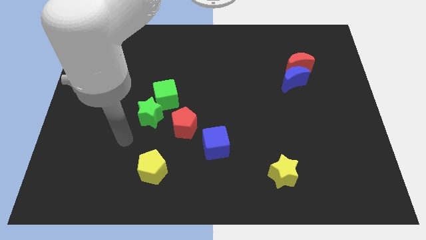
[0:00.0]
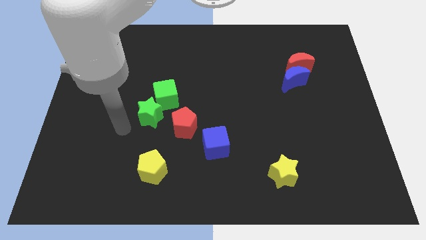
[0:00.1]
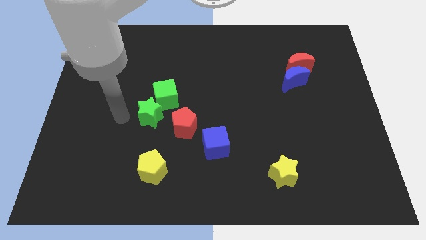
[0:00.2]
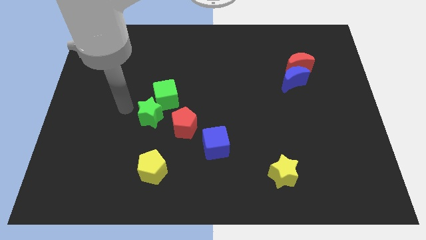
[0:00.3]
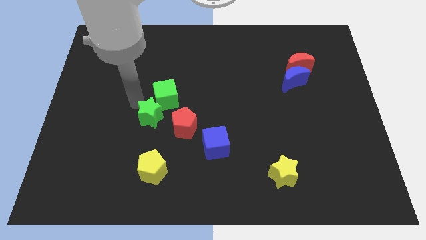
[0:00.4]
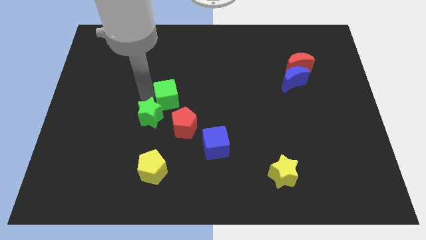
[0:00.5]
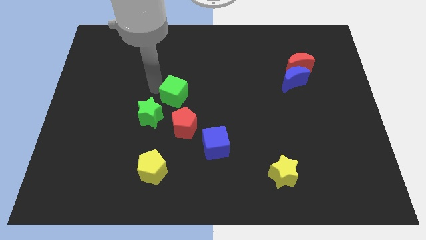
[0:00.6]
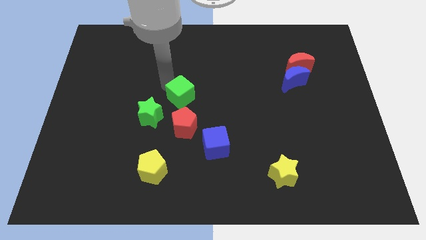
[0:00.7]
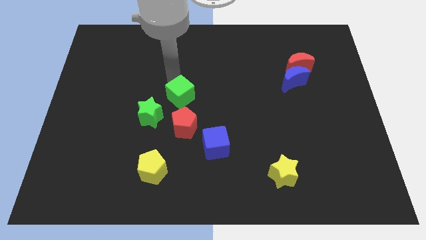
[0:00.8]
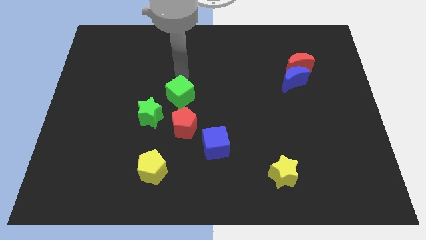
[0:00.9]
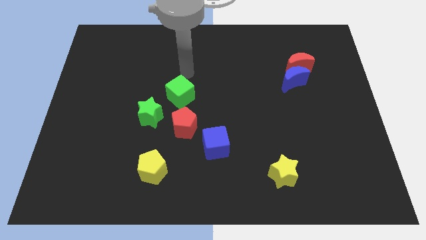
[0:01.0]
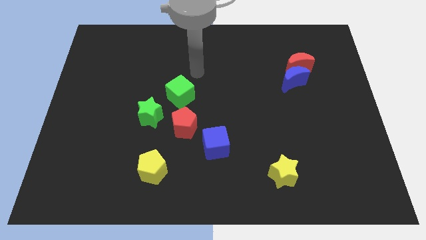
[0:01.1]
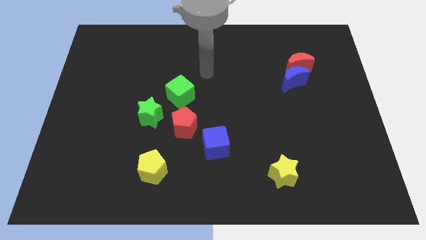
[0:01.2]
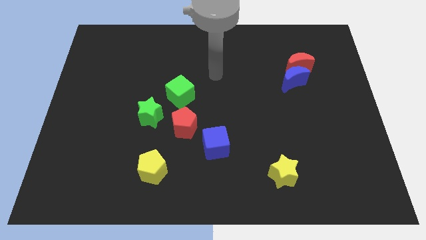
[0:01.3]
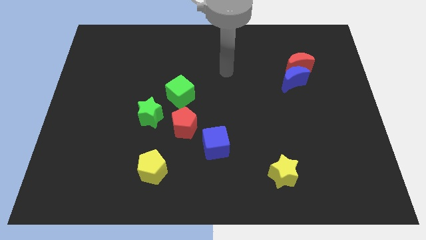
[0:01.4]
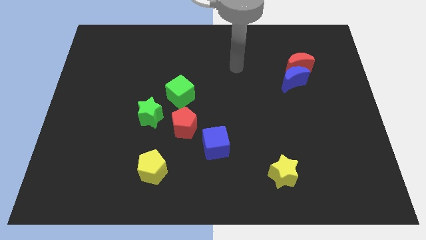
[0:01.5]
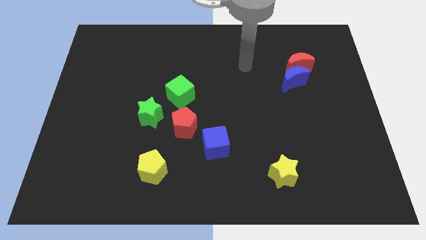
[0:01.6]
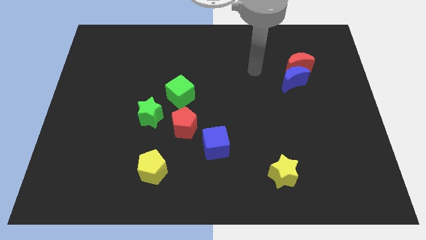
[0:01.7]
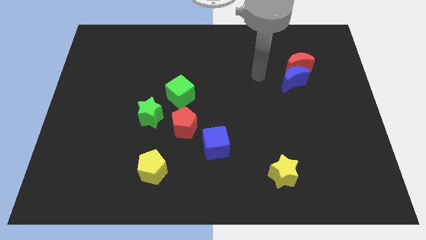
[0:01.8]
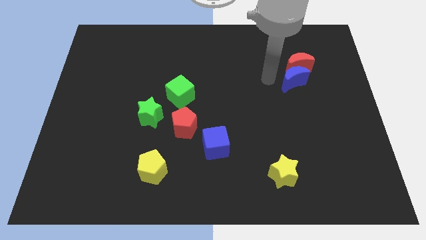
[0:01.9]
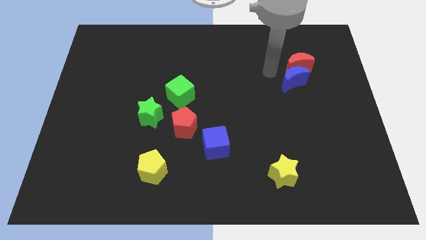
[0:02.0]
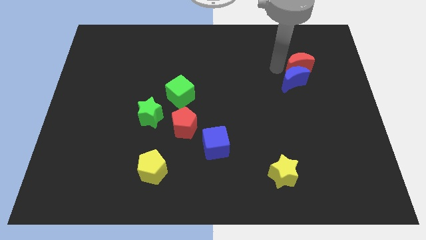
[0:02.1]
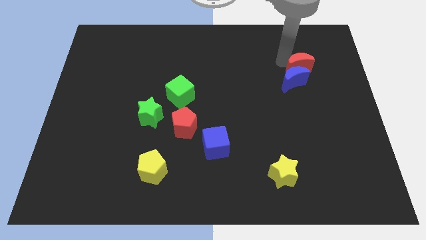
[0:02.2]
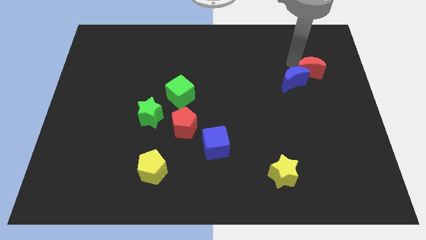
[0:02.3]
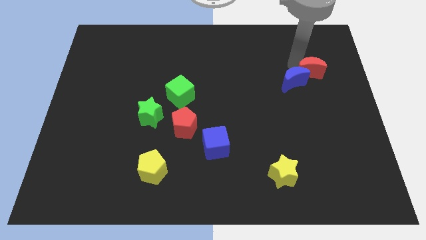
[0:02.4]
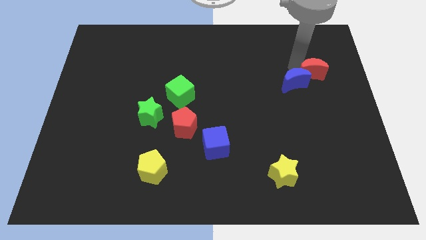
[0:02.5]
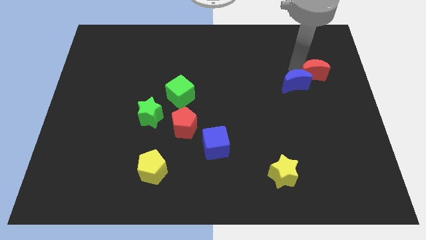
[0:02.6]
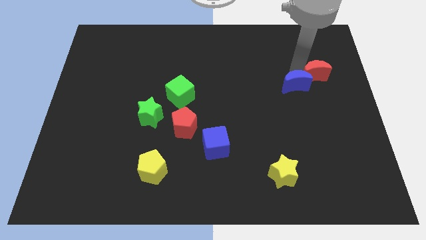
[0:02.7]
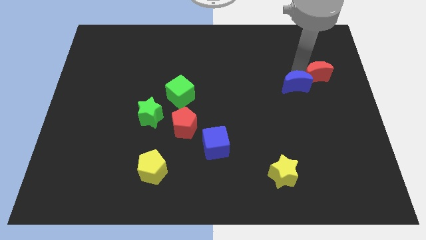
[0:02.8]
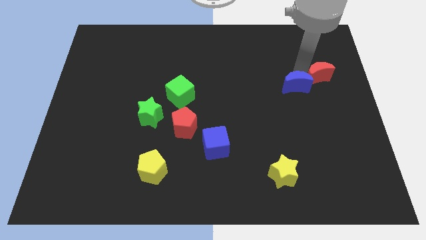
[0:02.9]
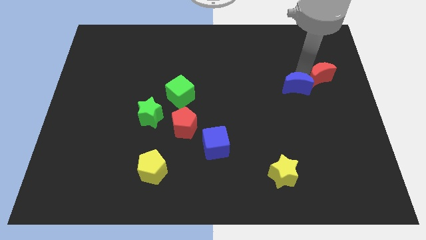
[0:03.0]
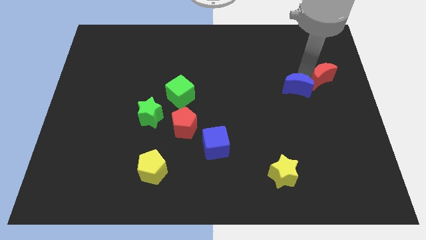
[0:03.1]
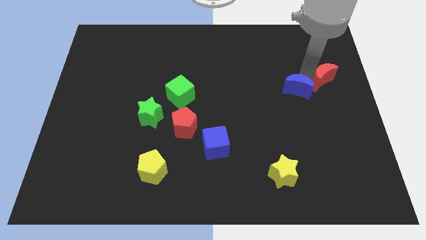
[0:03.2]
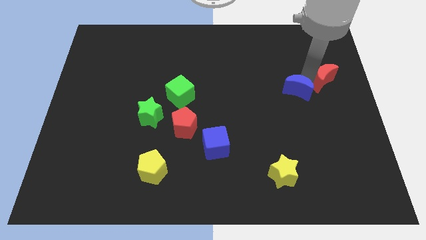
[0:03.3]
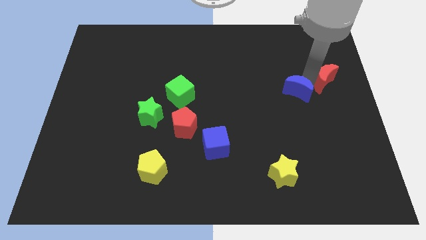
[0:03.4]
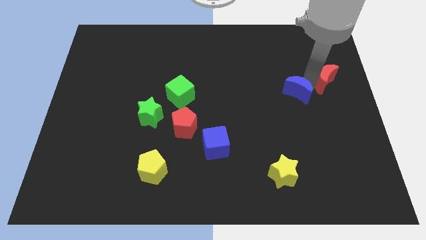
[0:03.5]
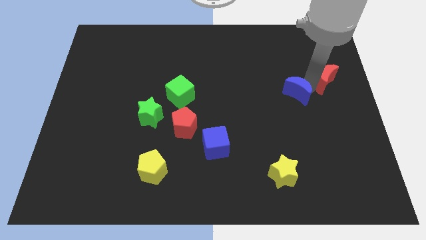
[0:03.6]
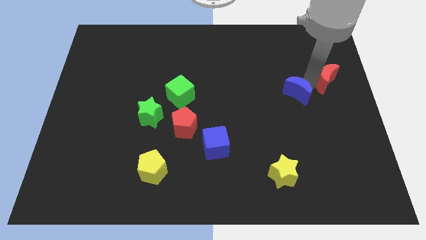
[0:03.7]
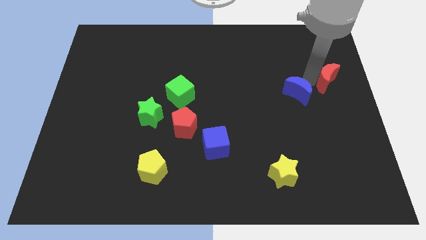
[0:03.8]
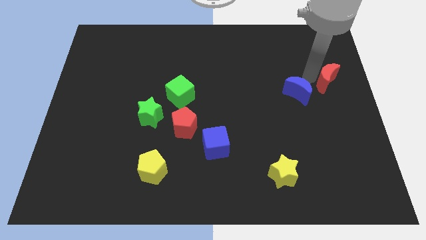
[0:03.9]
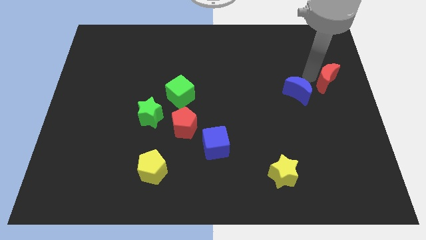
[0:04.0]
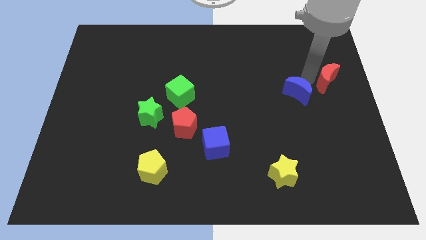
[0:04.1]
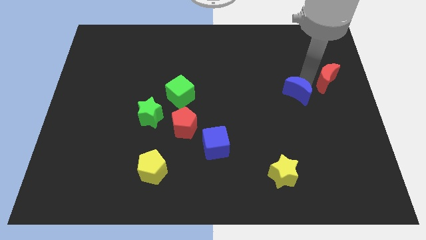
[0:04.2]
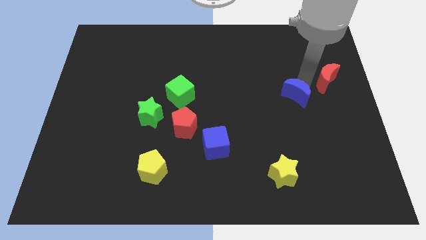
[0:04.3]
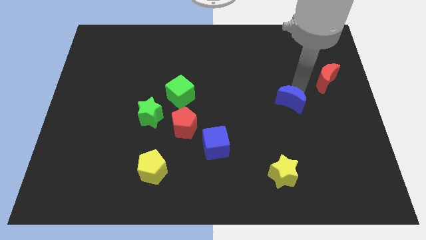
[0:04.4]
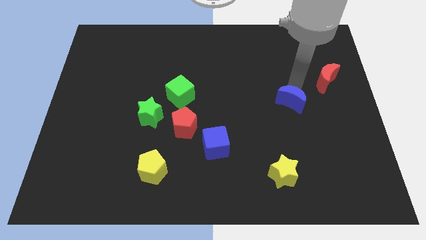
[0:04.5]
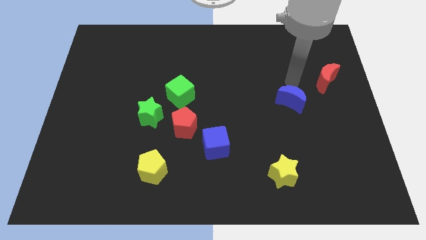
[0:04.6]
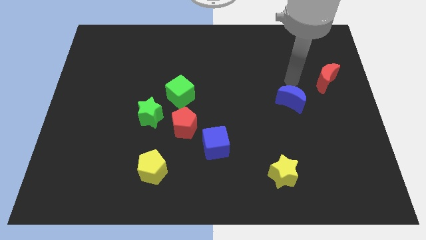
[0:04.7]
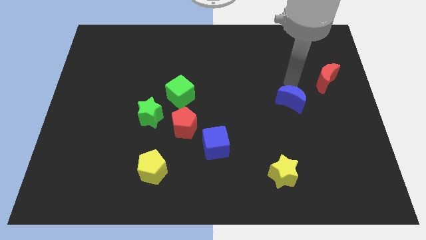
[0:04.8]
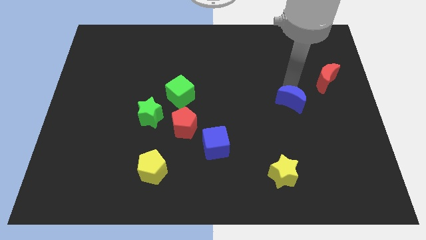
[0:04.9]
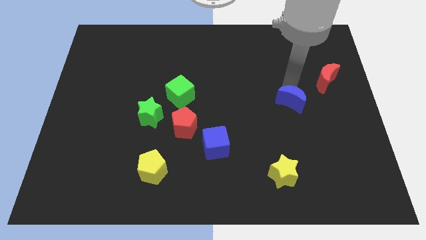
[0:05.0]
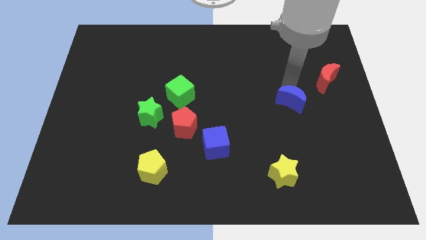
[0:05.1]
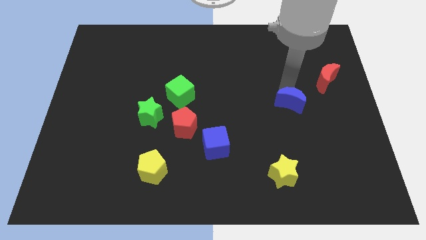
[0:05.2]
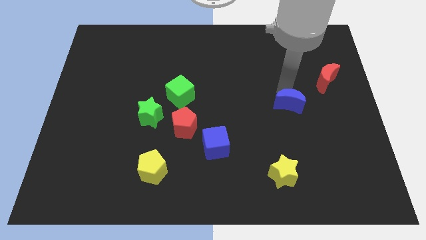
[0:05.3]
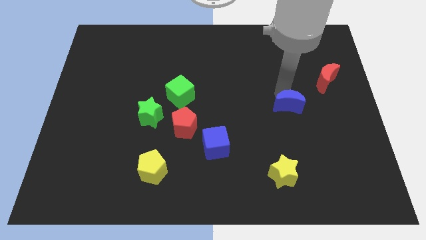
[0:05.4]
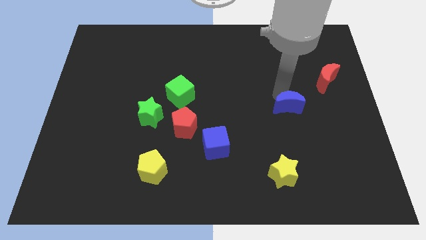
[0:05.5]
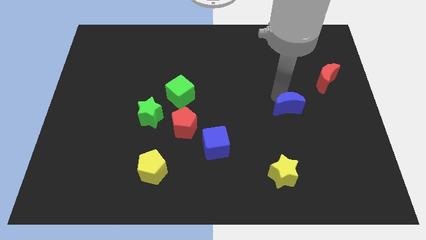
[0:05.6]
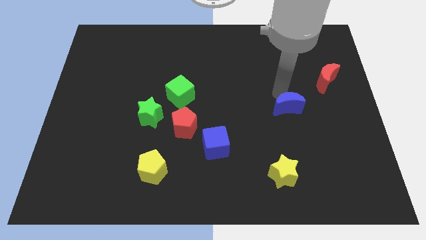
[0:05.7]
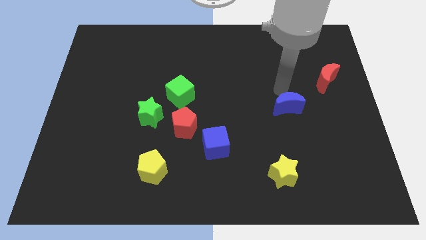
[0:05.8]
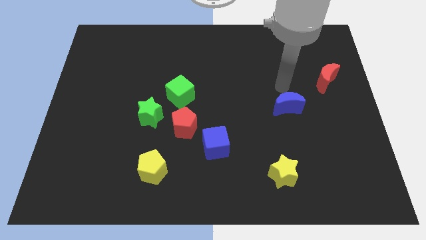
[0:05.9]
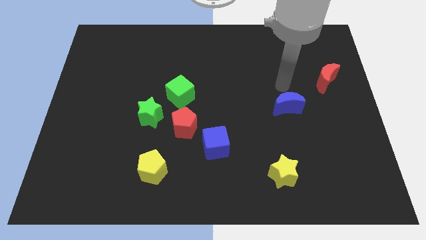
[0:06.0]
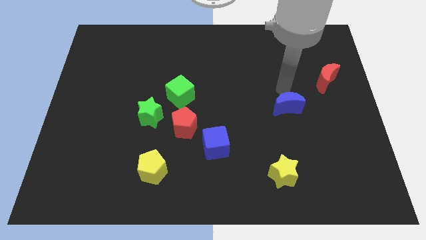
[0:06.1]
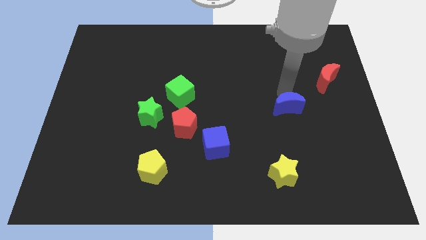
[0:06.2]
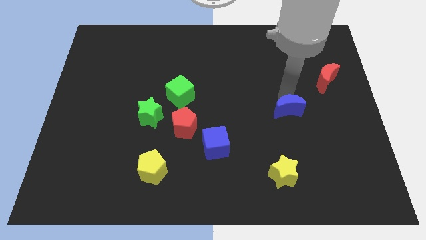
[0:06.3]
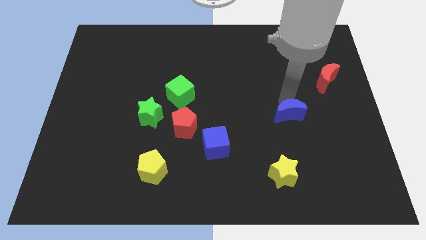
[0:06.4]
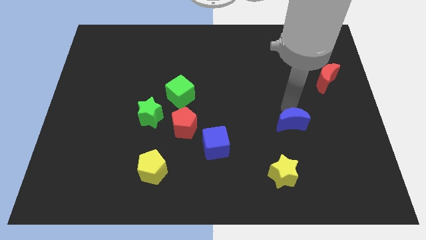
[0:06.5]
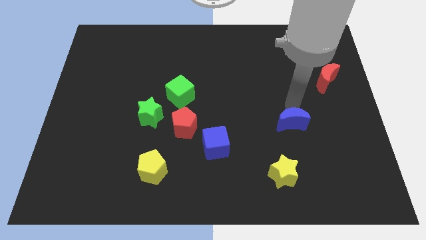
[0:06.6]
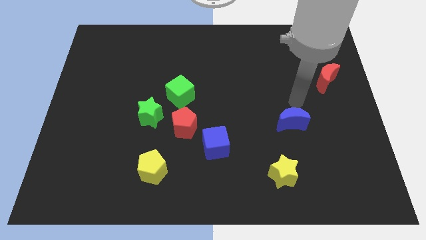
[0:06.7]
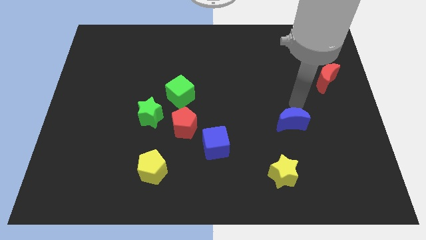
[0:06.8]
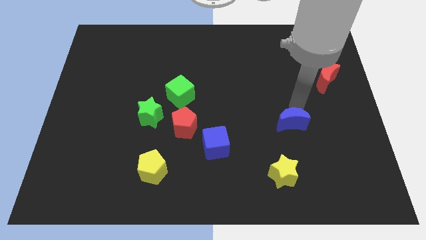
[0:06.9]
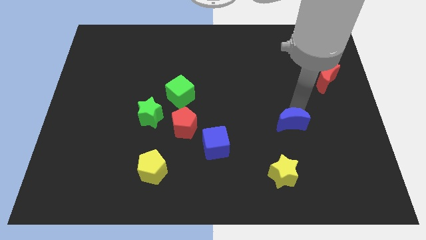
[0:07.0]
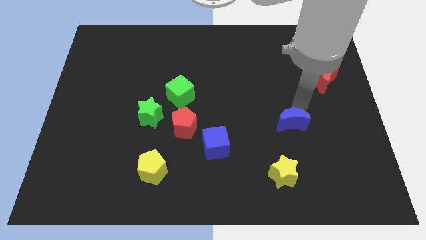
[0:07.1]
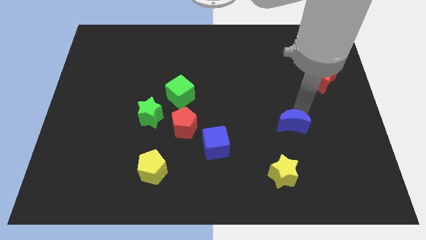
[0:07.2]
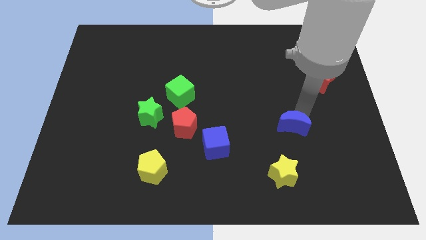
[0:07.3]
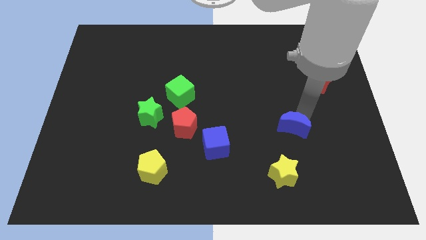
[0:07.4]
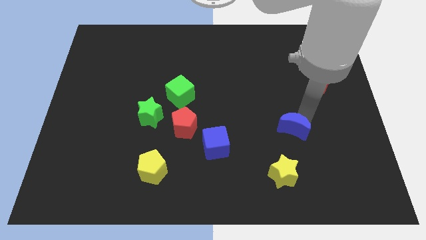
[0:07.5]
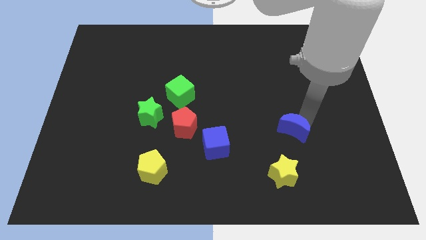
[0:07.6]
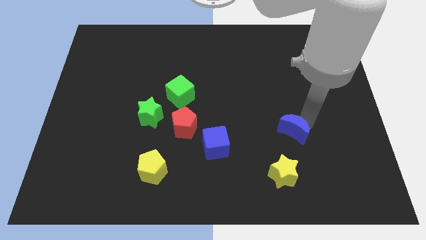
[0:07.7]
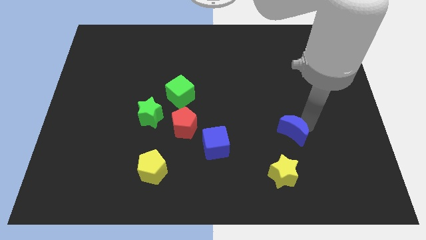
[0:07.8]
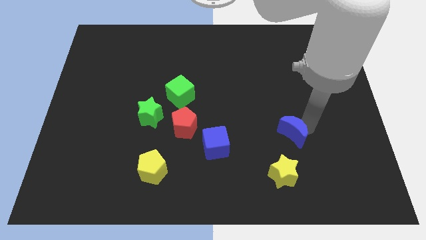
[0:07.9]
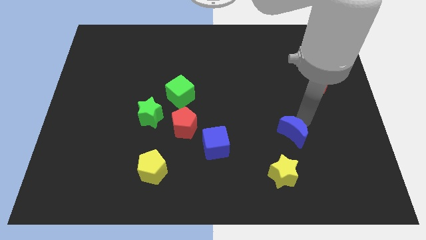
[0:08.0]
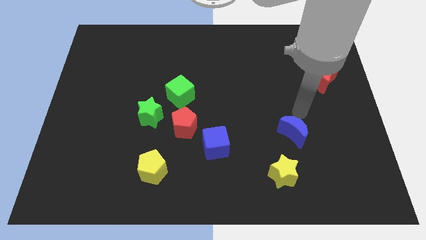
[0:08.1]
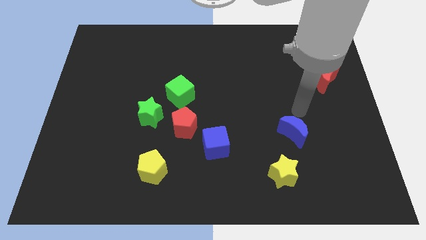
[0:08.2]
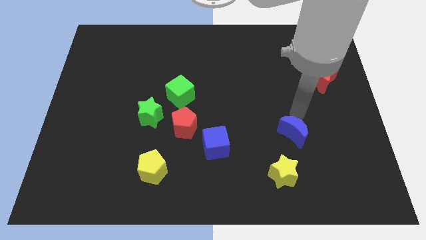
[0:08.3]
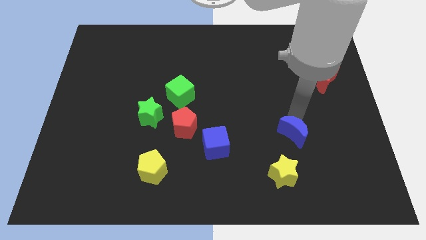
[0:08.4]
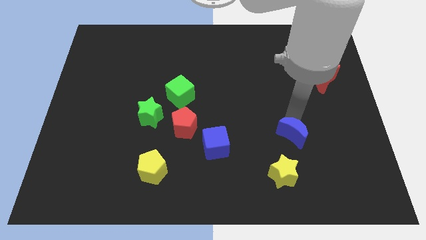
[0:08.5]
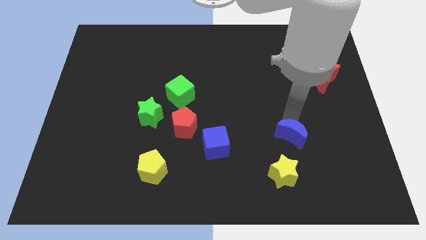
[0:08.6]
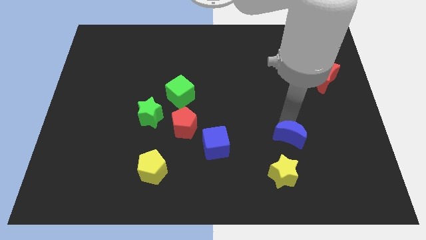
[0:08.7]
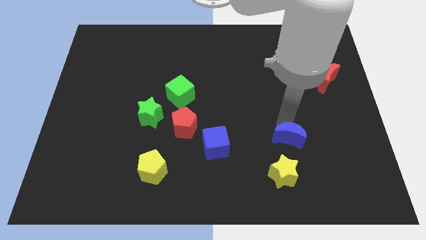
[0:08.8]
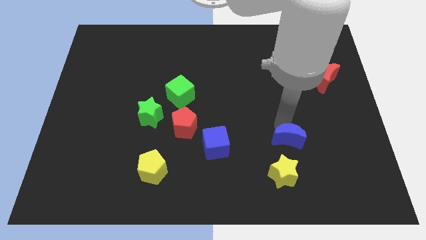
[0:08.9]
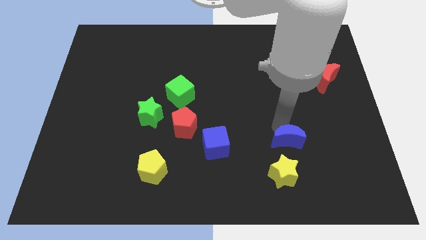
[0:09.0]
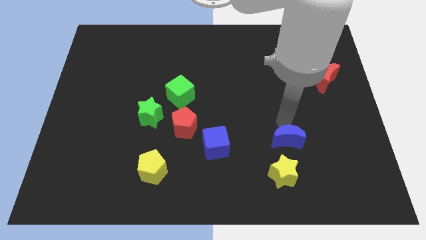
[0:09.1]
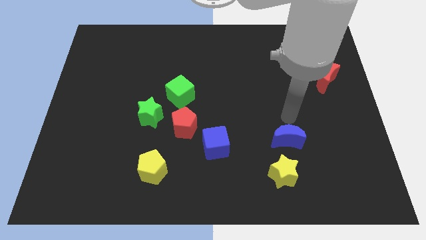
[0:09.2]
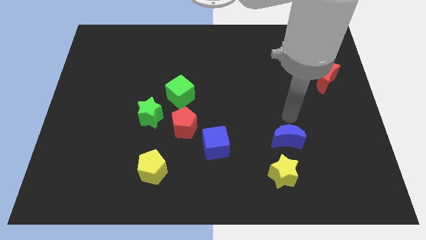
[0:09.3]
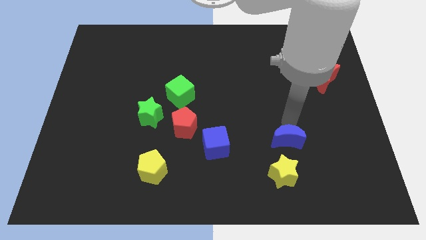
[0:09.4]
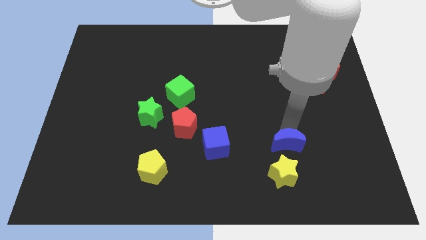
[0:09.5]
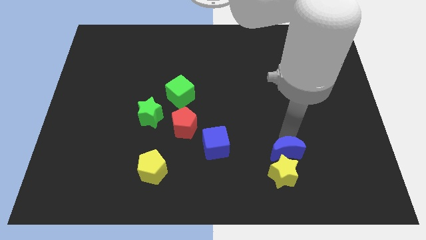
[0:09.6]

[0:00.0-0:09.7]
push the blue moon close to the yellow star
